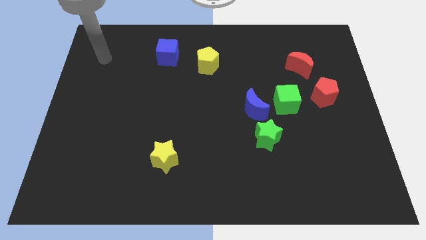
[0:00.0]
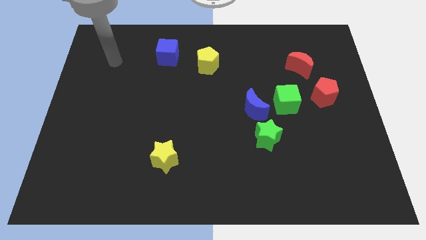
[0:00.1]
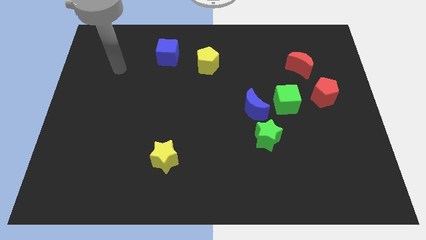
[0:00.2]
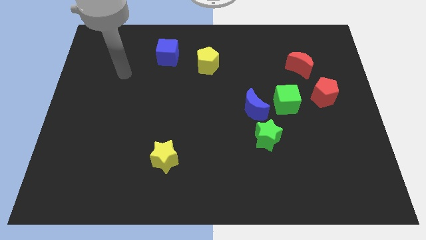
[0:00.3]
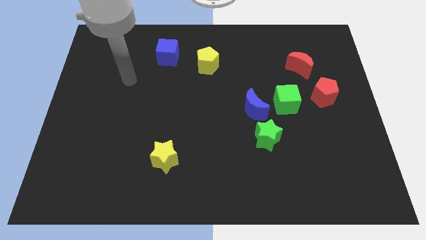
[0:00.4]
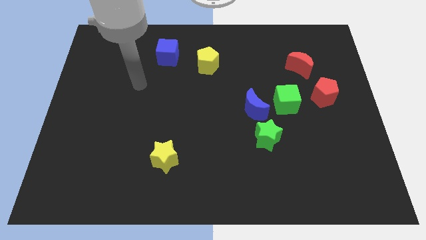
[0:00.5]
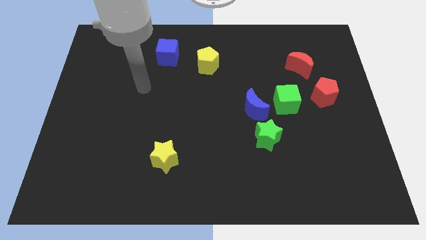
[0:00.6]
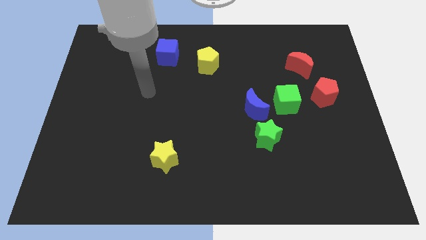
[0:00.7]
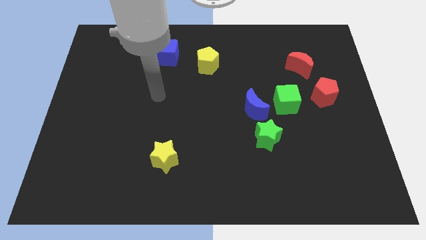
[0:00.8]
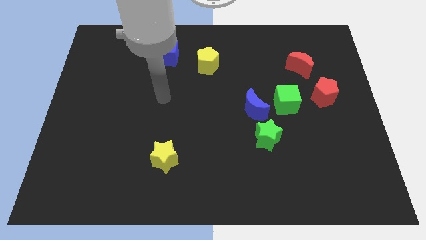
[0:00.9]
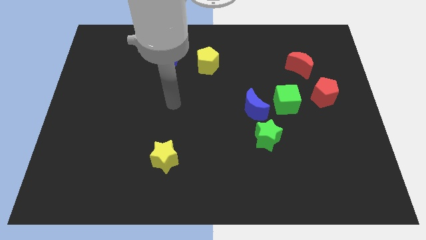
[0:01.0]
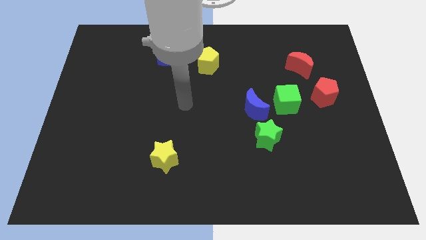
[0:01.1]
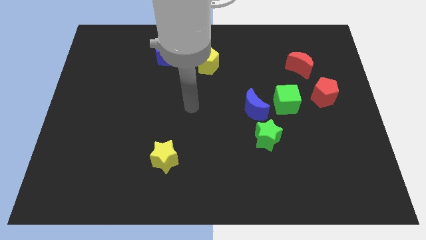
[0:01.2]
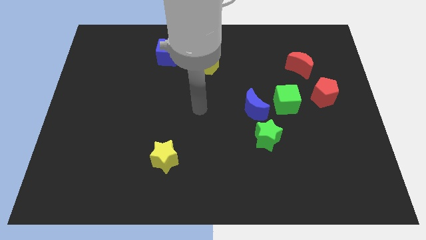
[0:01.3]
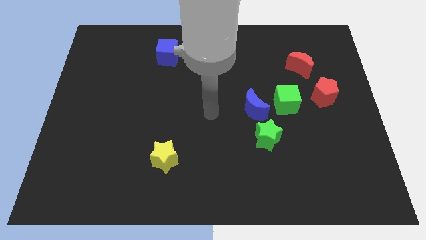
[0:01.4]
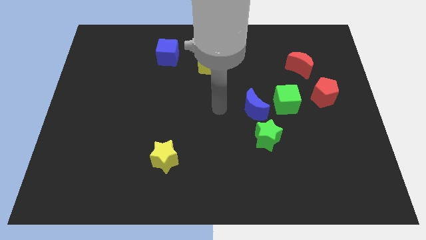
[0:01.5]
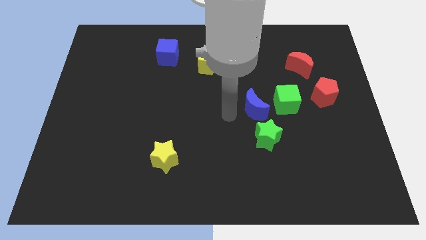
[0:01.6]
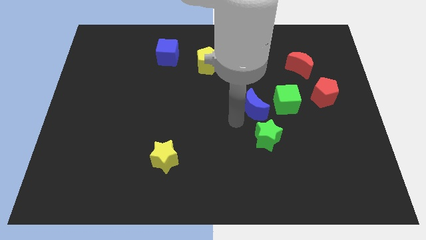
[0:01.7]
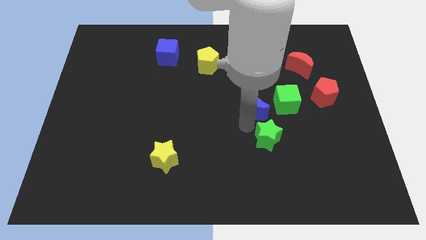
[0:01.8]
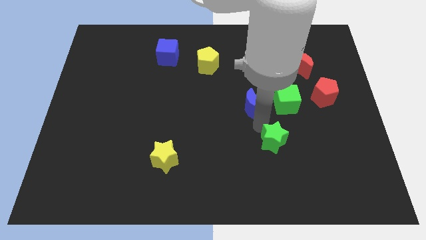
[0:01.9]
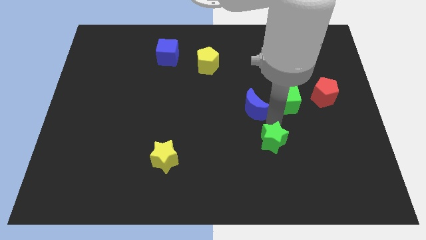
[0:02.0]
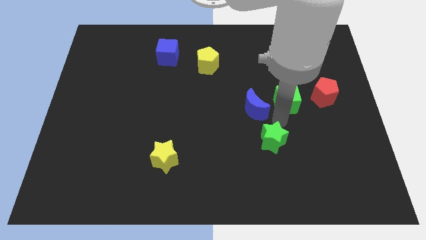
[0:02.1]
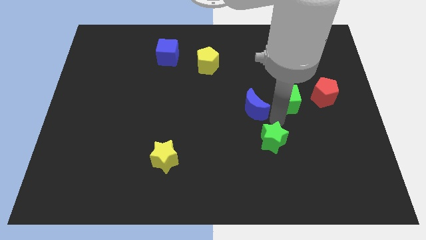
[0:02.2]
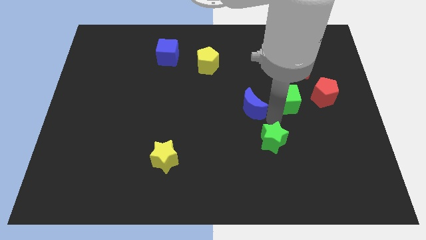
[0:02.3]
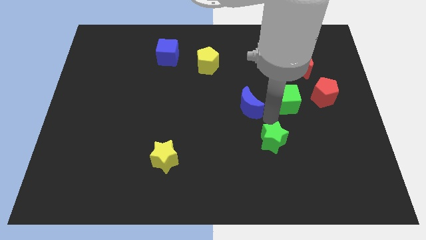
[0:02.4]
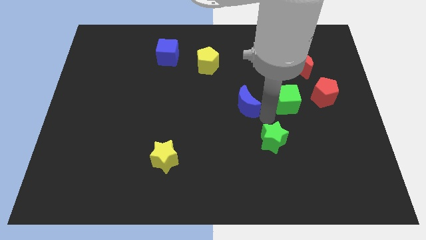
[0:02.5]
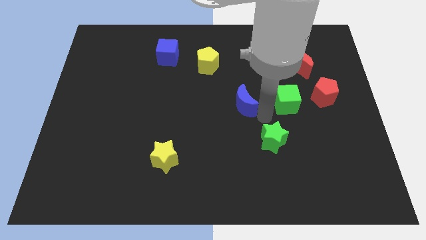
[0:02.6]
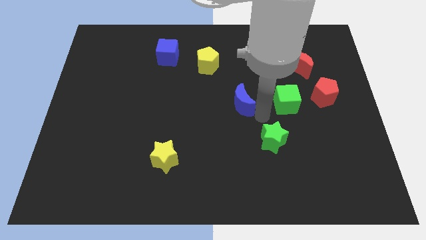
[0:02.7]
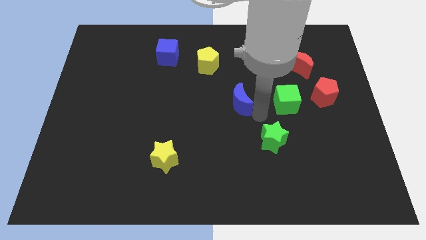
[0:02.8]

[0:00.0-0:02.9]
separate the blue moon from the green cube and green star

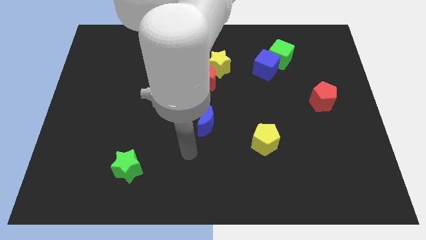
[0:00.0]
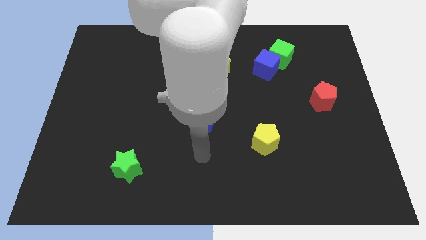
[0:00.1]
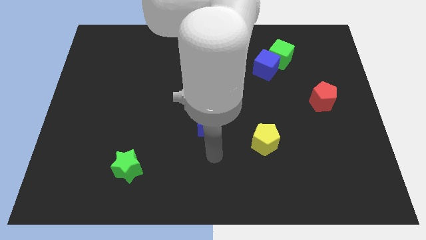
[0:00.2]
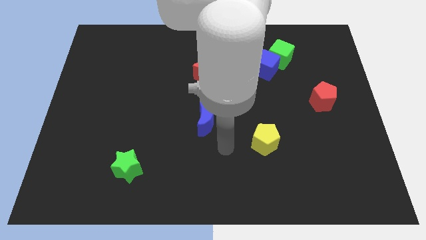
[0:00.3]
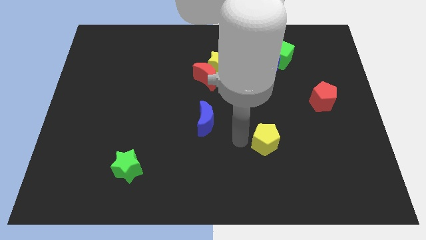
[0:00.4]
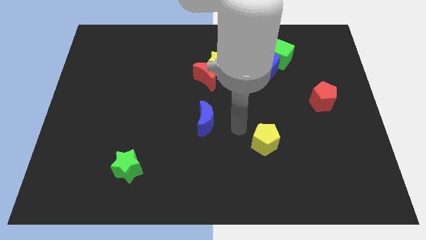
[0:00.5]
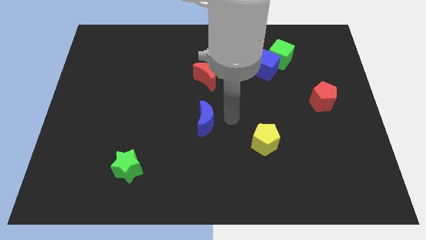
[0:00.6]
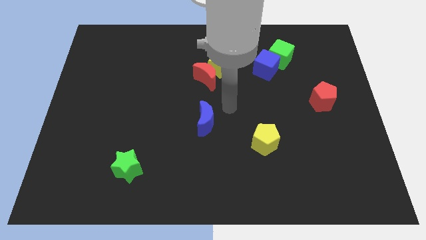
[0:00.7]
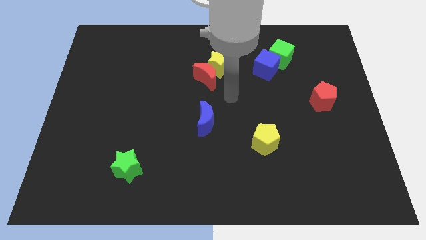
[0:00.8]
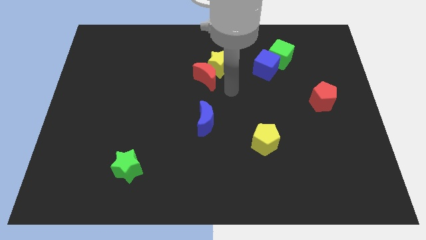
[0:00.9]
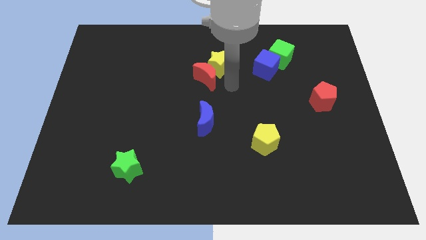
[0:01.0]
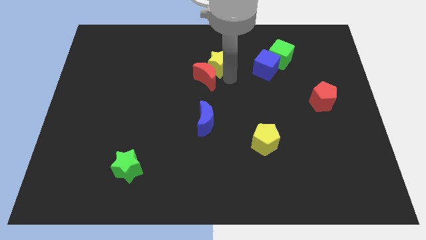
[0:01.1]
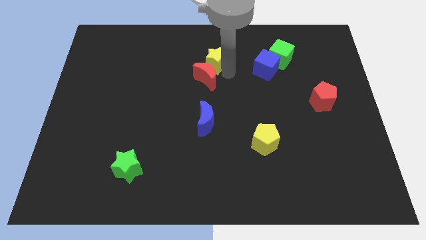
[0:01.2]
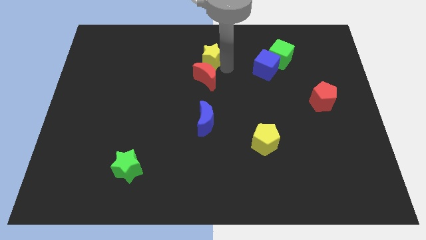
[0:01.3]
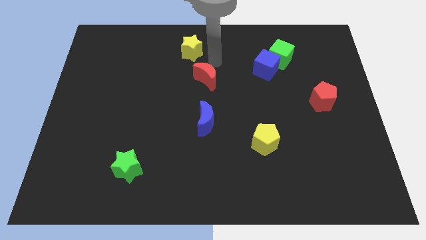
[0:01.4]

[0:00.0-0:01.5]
move the red moon away from the yellow star

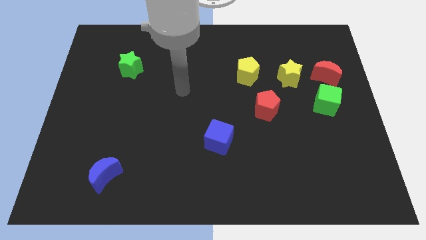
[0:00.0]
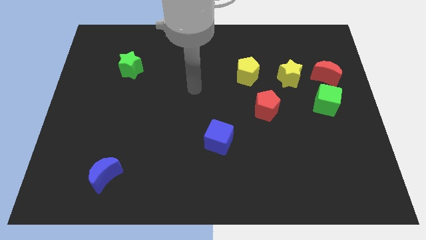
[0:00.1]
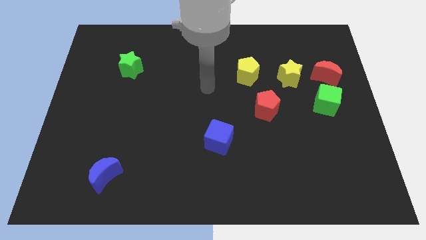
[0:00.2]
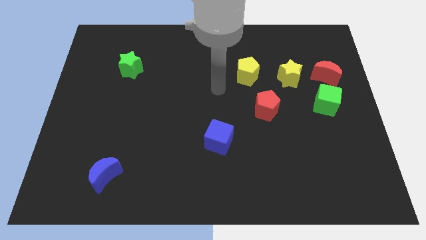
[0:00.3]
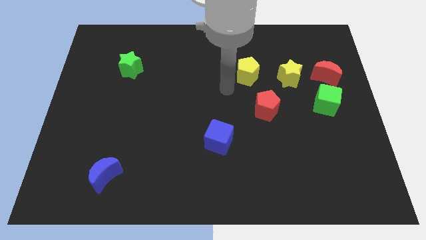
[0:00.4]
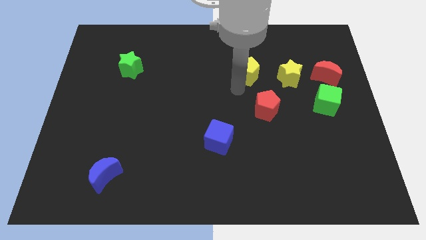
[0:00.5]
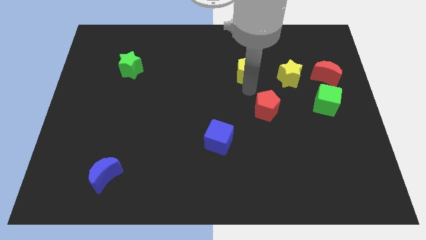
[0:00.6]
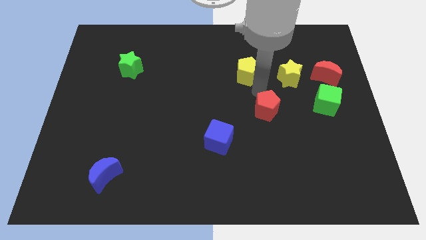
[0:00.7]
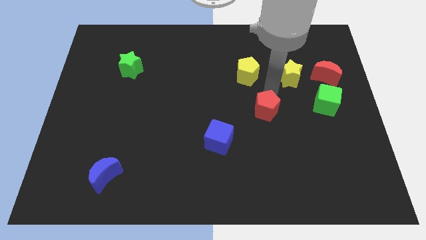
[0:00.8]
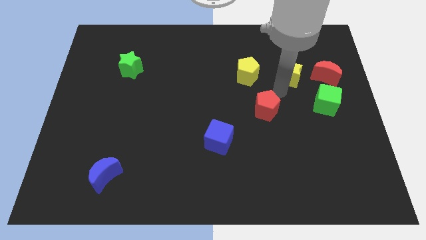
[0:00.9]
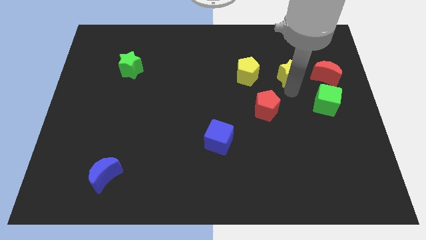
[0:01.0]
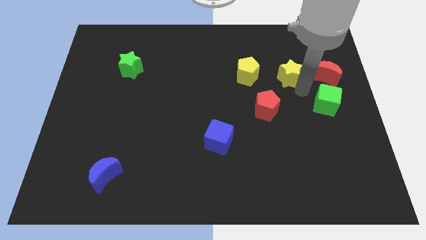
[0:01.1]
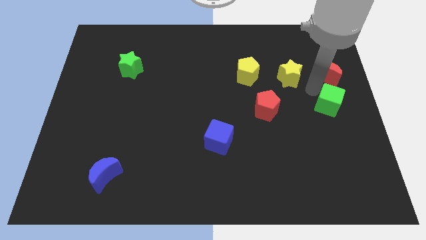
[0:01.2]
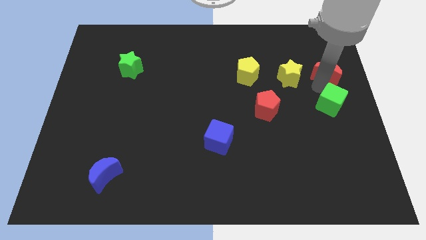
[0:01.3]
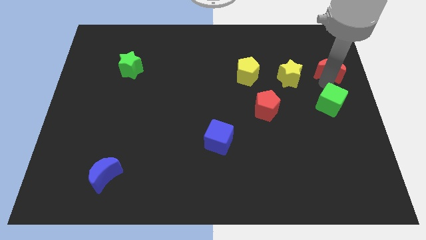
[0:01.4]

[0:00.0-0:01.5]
move the green cube away from the red moon

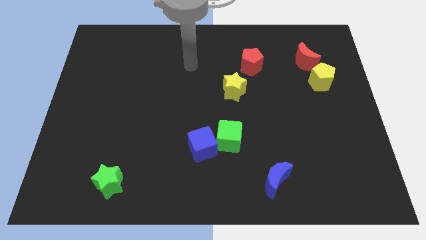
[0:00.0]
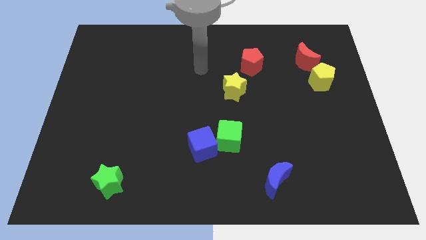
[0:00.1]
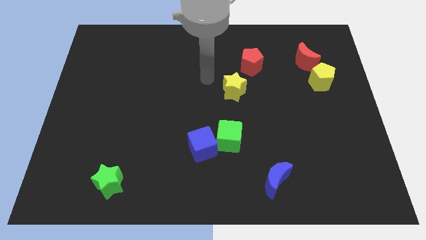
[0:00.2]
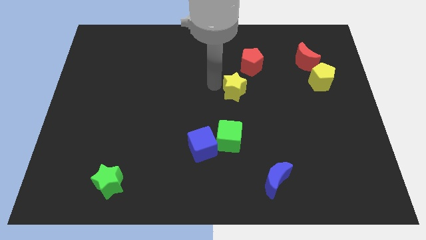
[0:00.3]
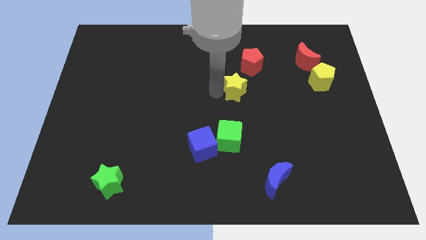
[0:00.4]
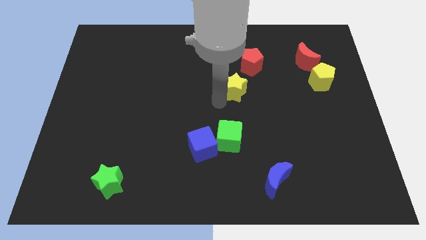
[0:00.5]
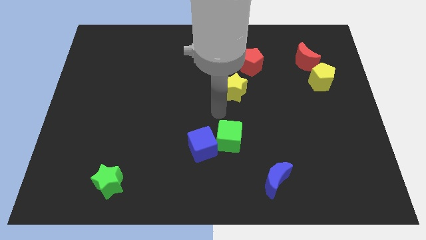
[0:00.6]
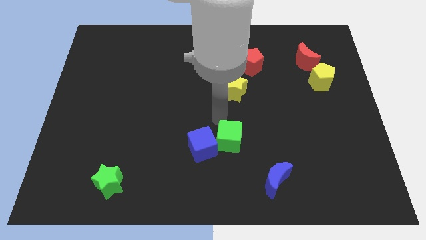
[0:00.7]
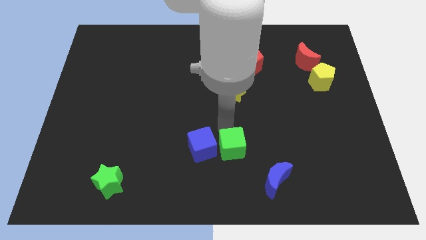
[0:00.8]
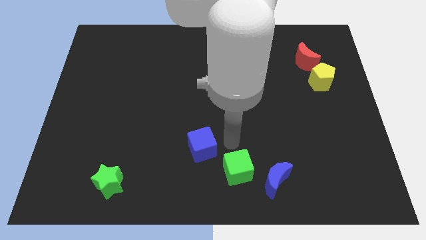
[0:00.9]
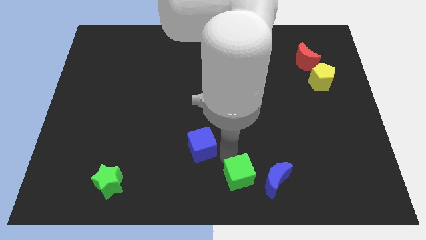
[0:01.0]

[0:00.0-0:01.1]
separate the blue cube from the green cube

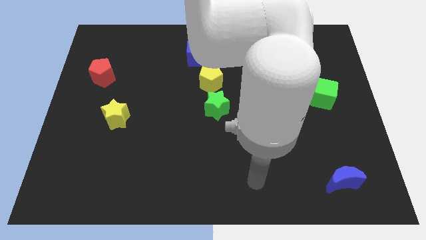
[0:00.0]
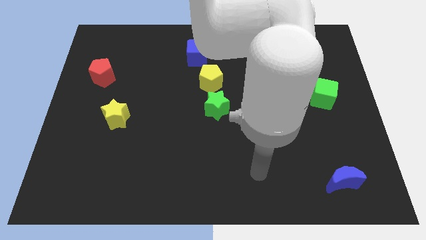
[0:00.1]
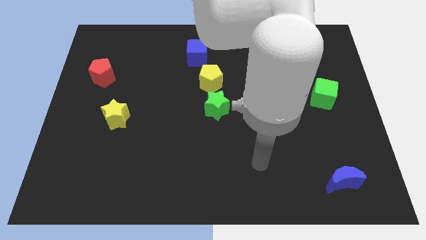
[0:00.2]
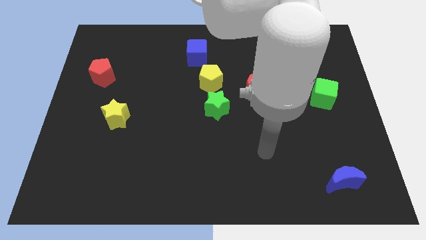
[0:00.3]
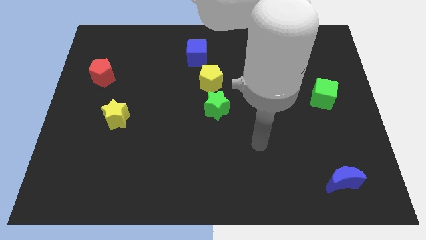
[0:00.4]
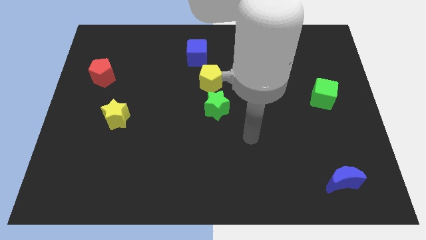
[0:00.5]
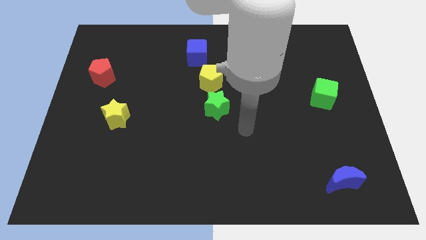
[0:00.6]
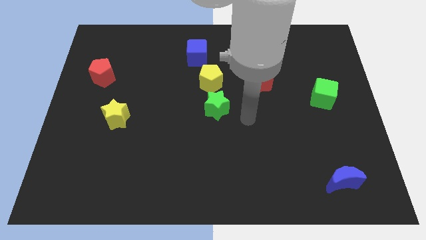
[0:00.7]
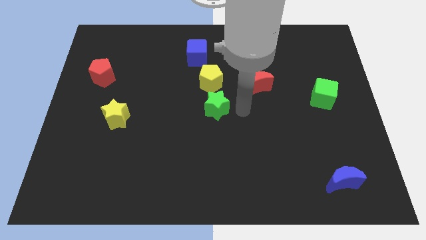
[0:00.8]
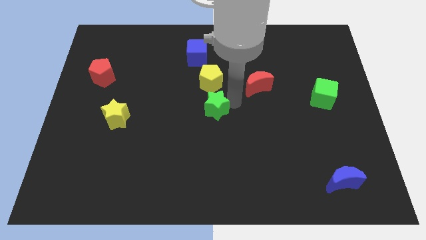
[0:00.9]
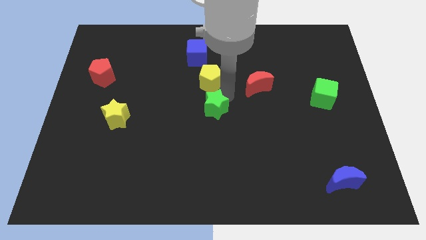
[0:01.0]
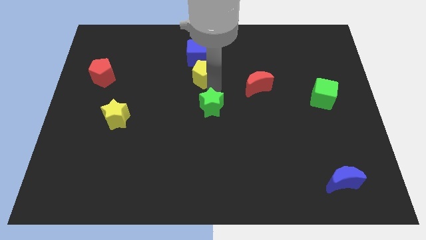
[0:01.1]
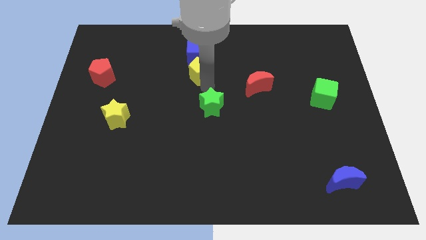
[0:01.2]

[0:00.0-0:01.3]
separate the green star from the yellow pentagon

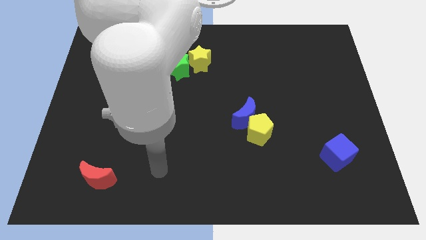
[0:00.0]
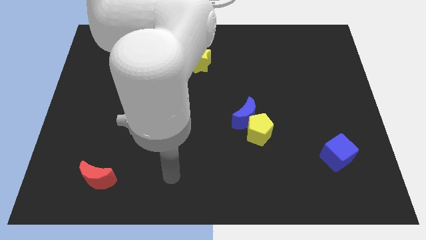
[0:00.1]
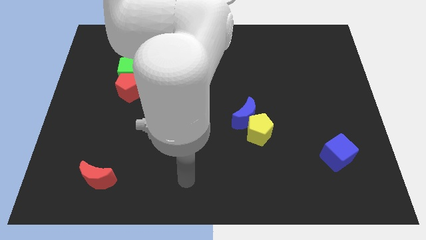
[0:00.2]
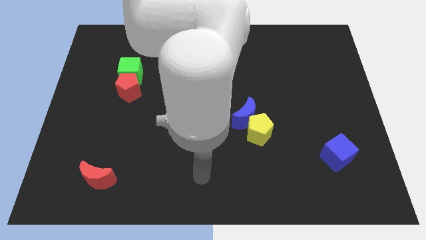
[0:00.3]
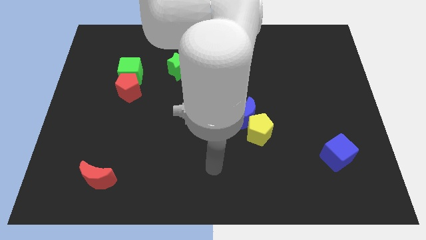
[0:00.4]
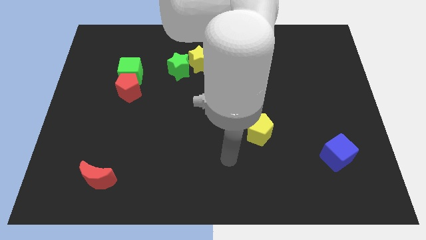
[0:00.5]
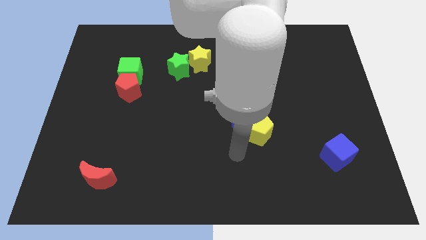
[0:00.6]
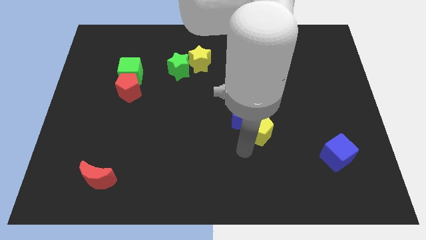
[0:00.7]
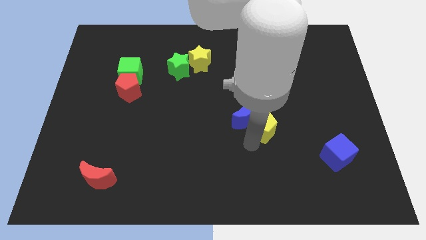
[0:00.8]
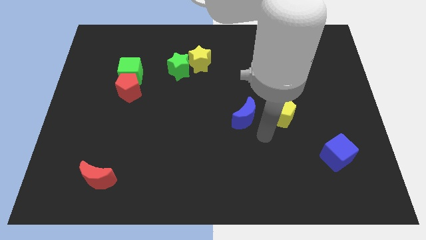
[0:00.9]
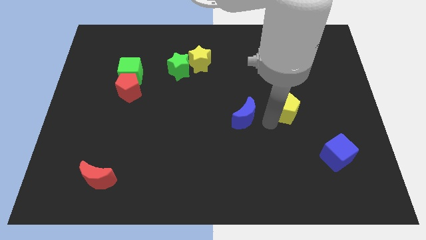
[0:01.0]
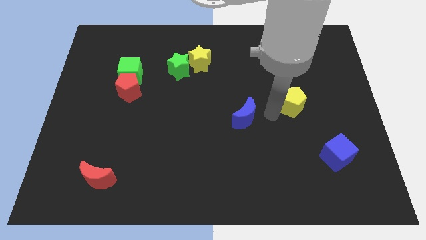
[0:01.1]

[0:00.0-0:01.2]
move the blue moon away from the yellow pentagon
